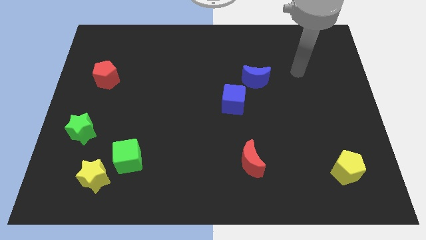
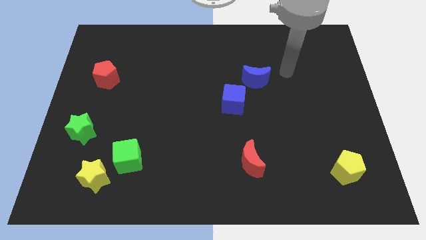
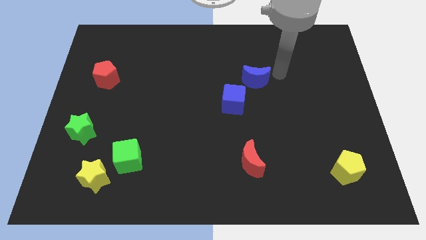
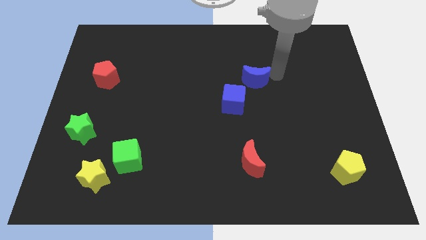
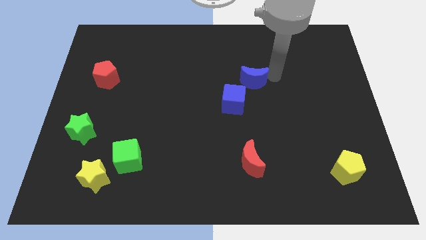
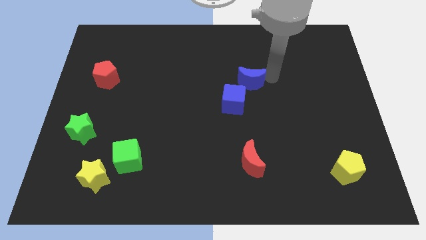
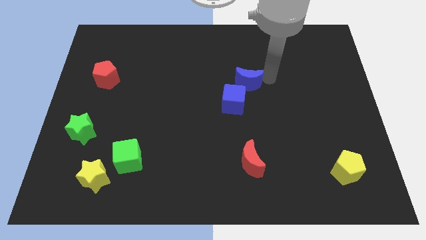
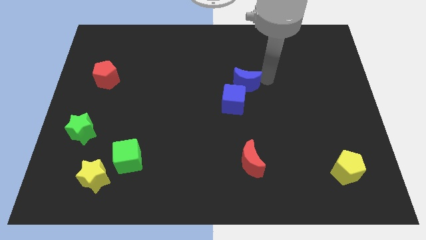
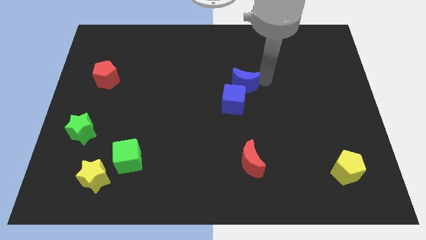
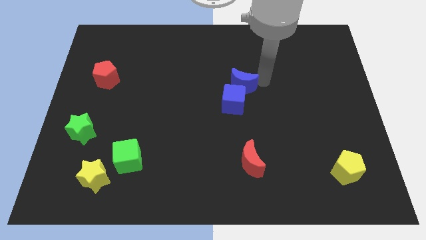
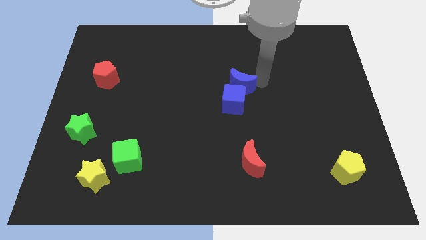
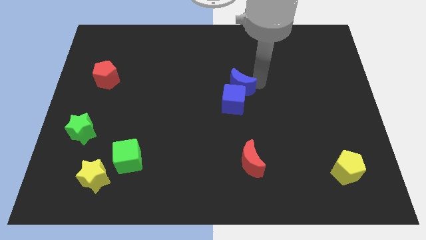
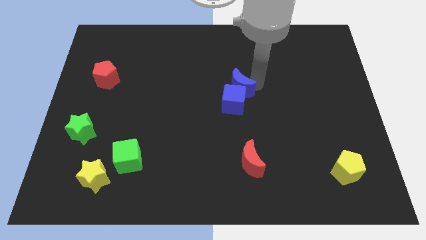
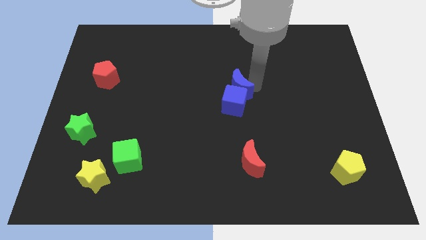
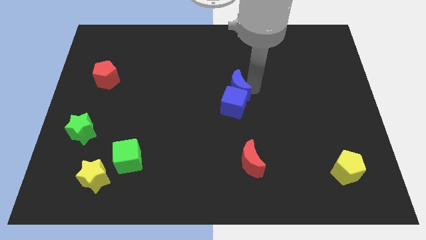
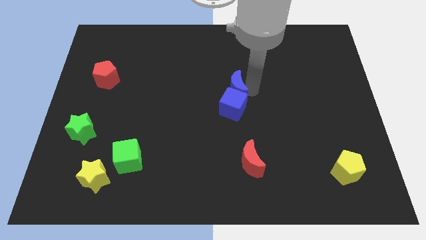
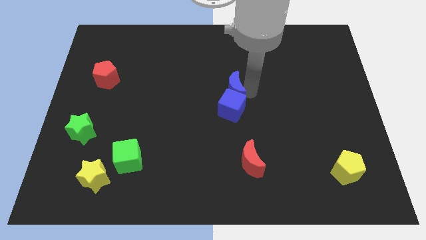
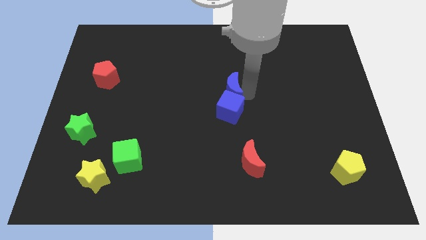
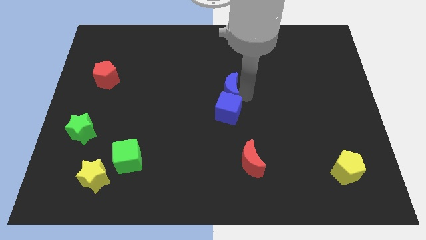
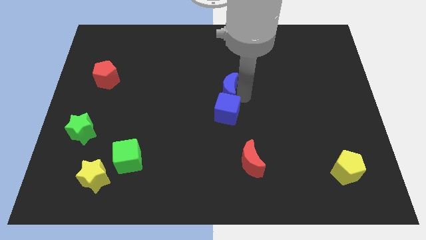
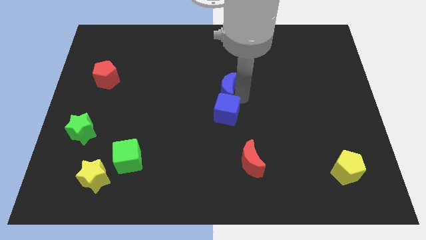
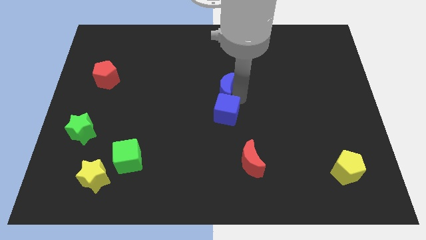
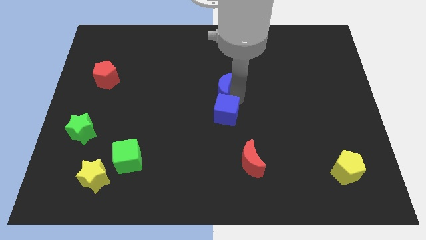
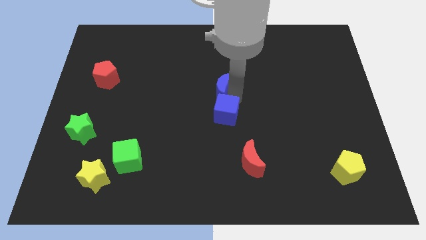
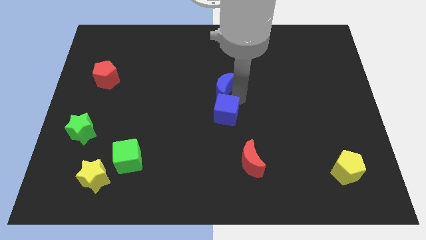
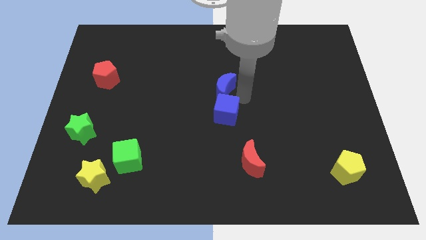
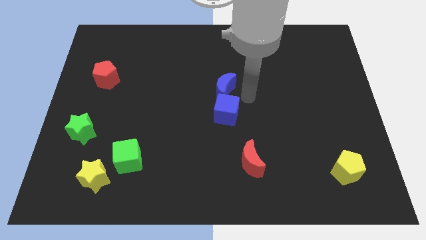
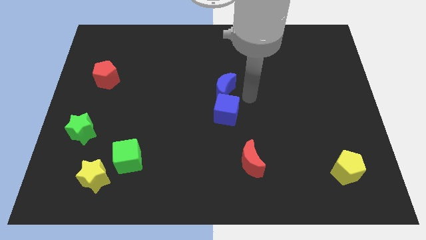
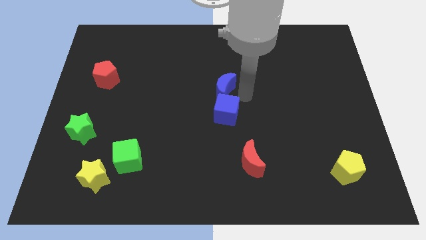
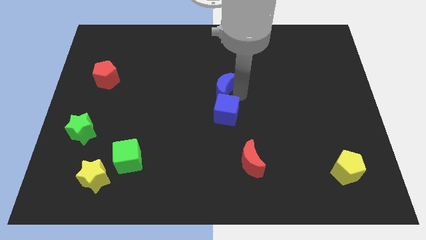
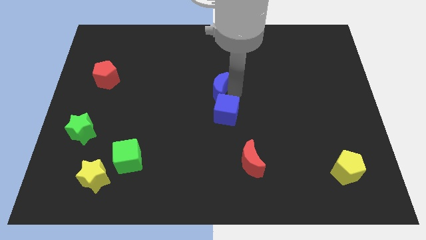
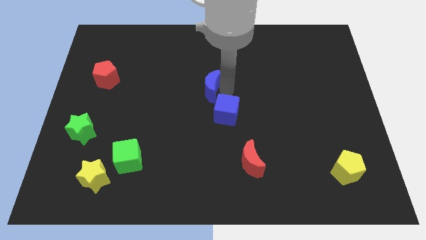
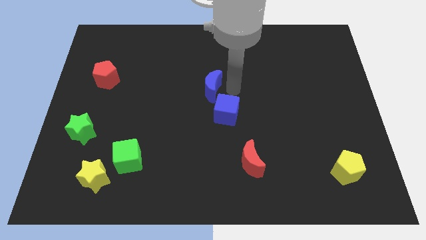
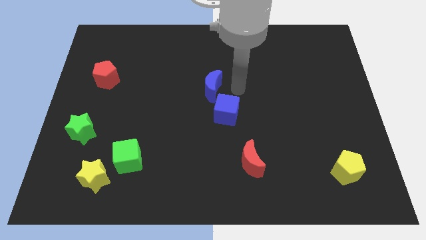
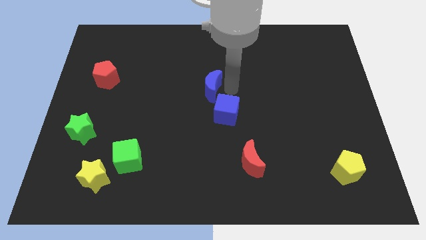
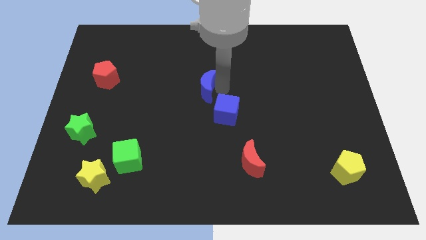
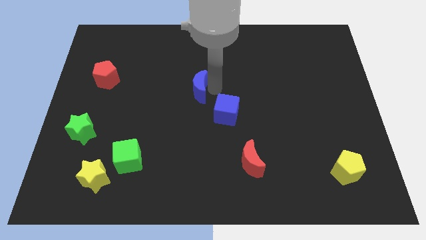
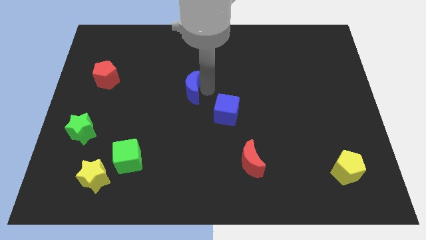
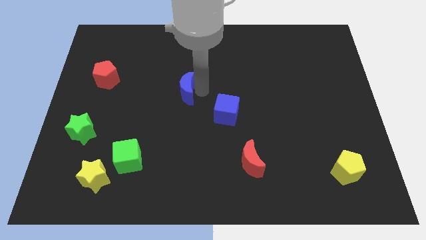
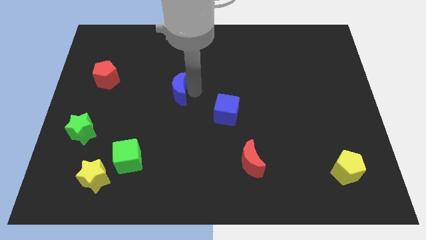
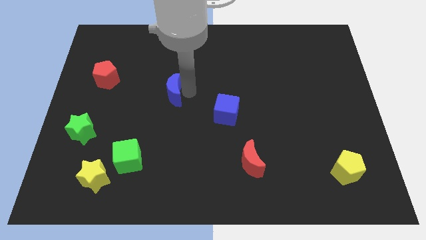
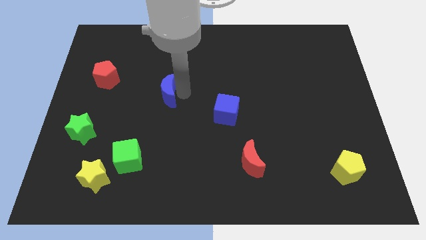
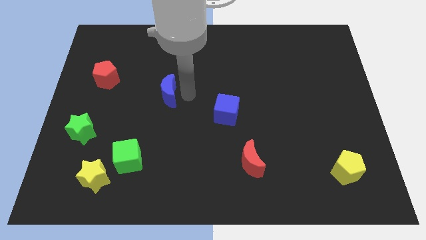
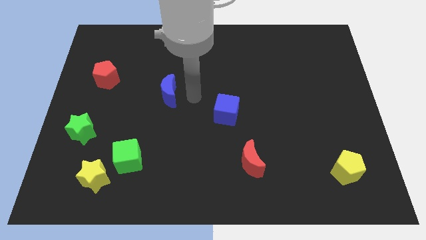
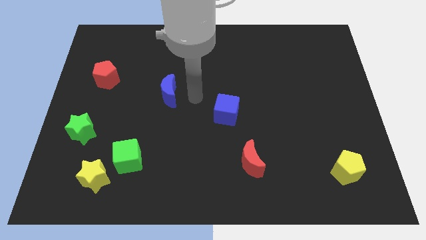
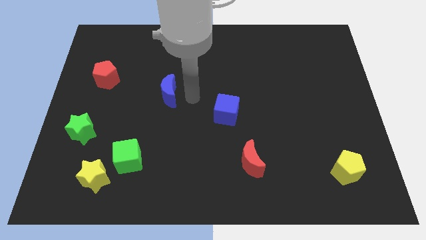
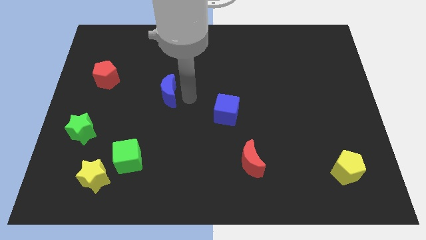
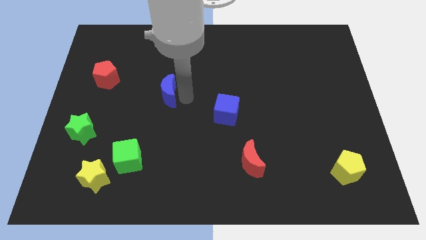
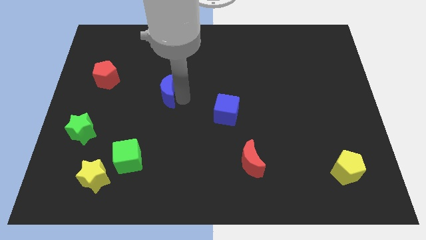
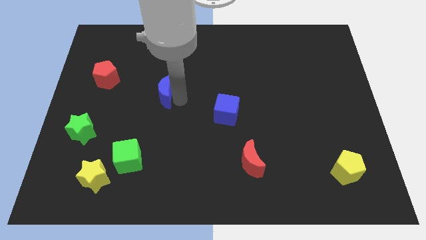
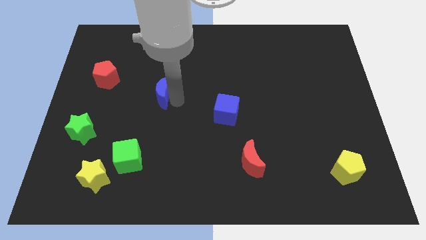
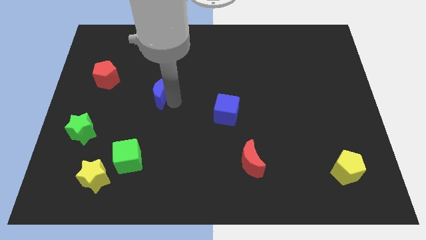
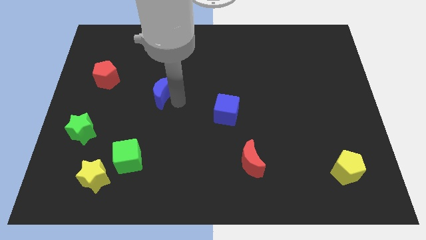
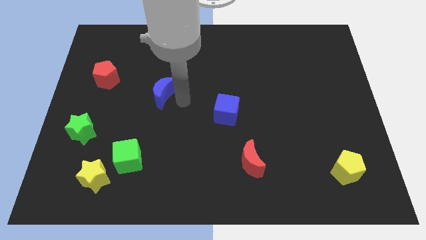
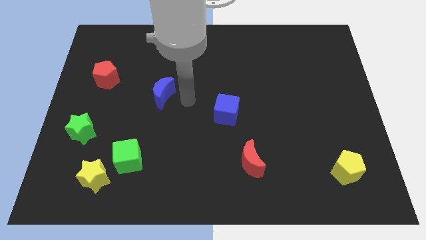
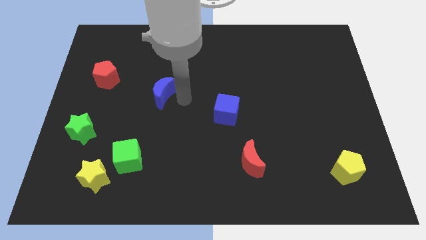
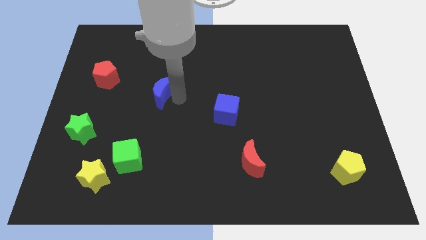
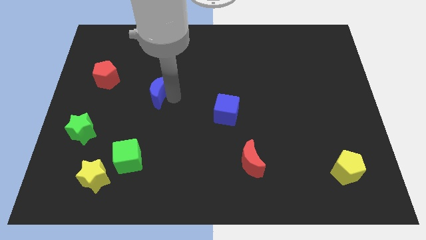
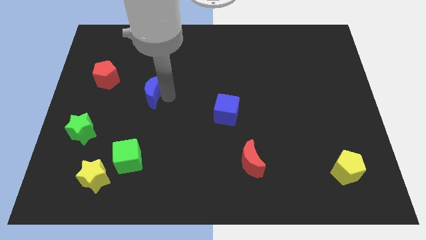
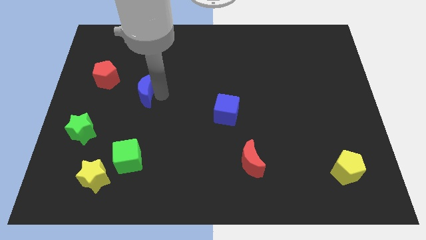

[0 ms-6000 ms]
push the blue moon to the bottom right side of the red pentagon

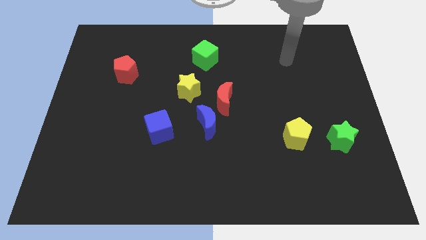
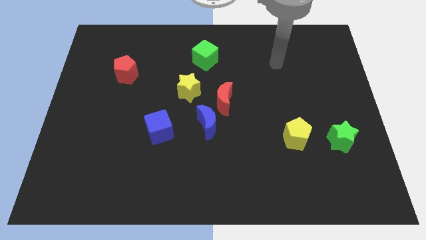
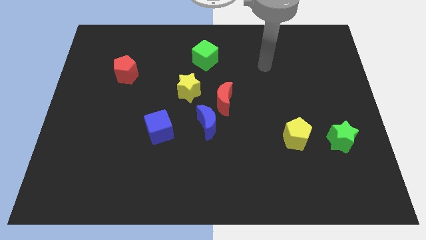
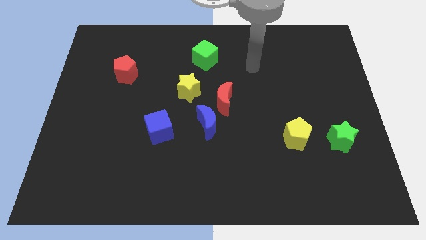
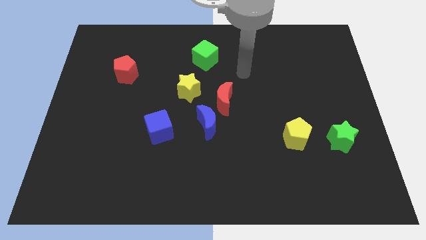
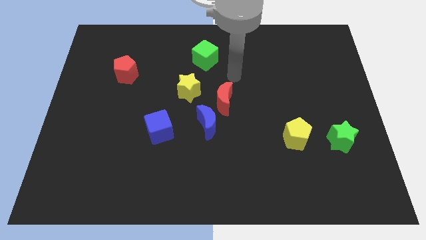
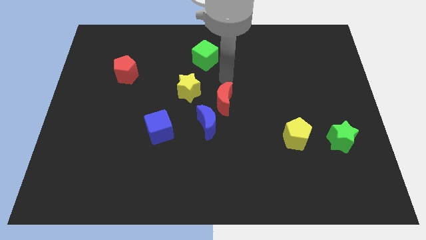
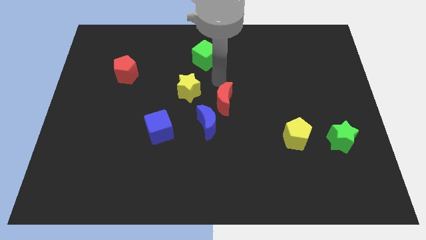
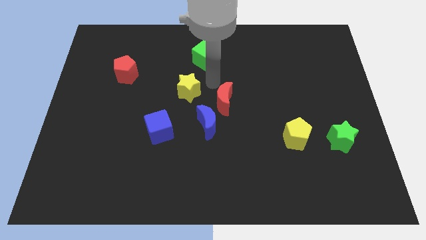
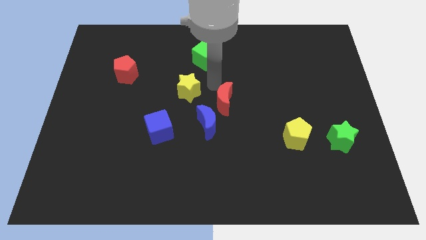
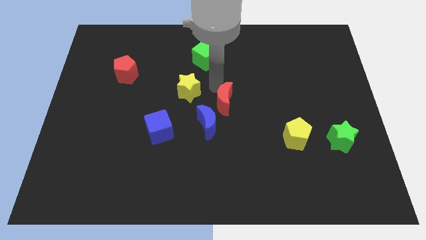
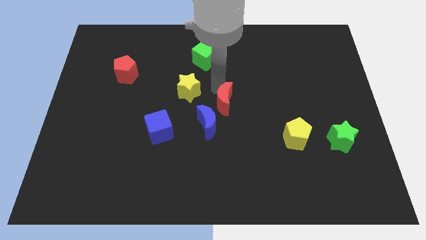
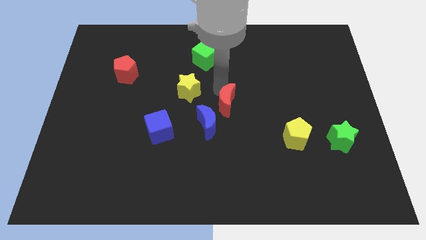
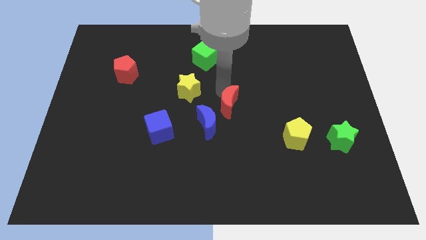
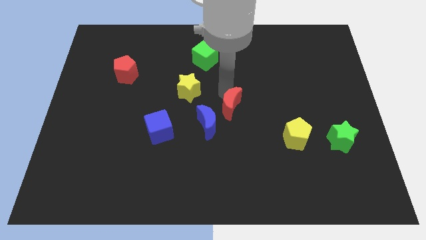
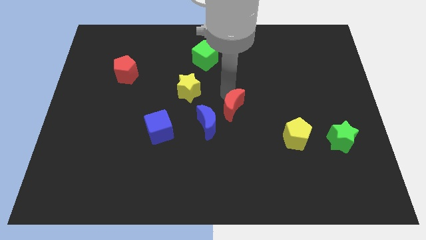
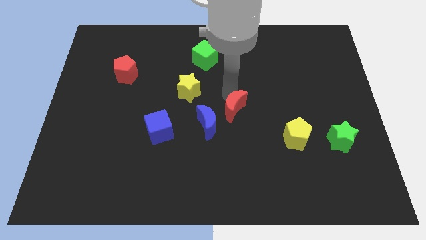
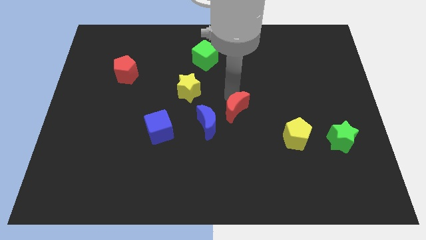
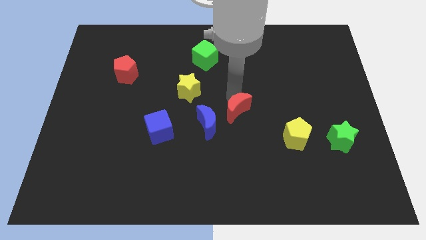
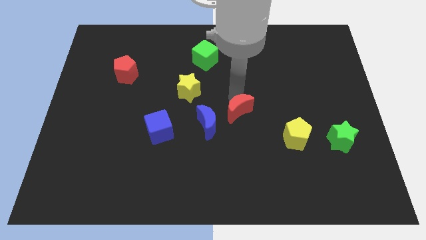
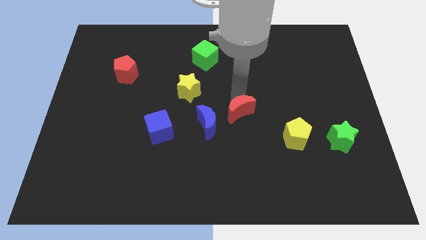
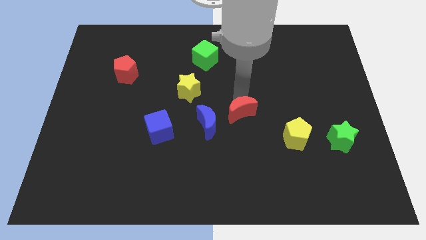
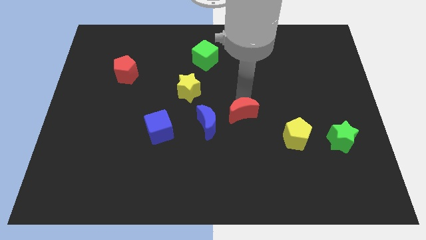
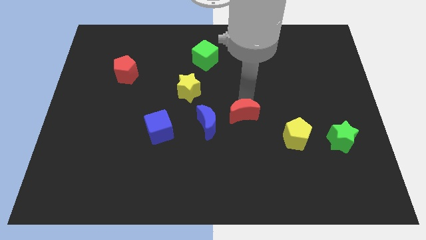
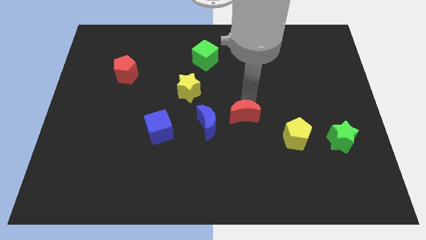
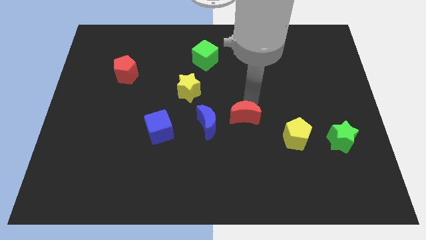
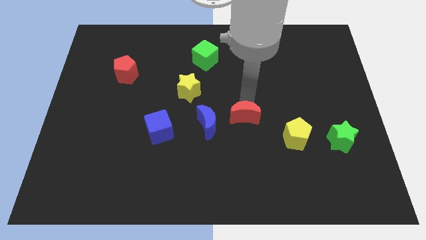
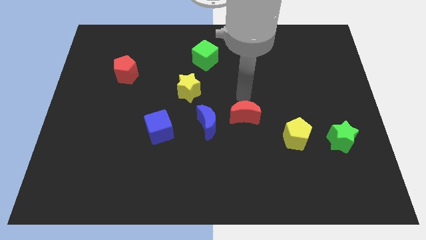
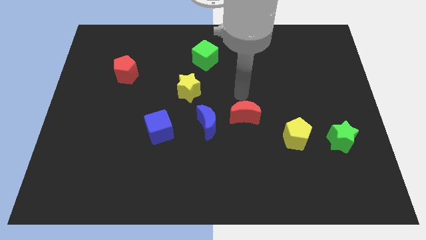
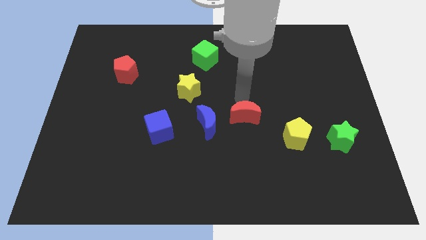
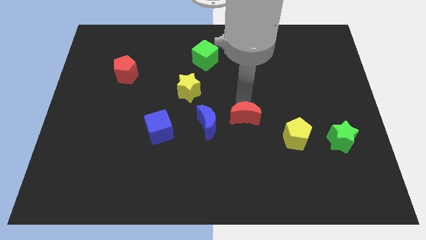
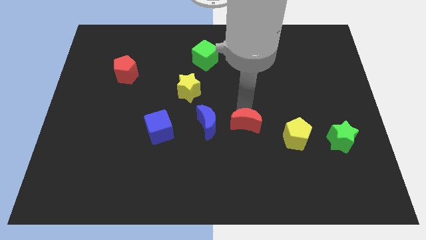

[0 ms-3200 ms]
push the red moon to the left side of the yellow pentagon
